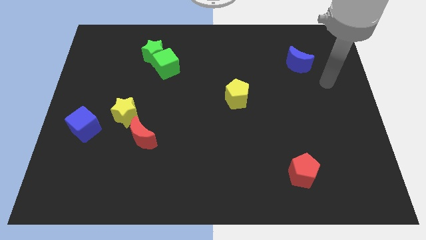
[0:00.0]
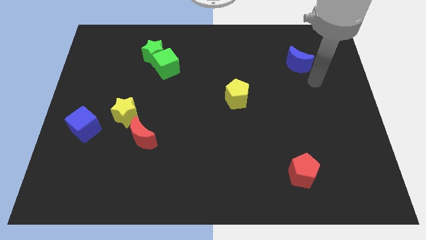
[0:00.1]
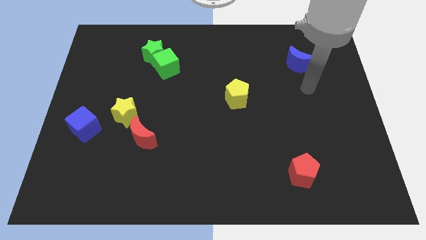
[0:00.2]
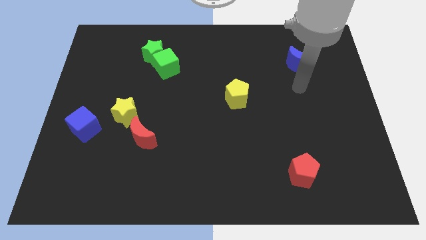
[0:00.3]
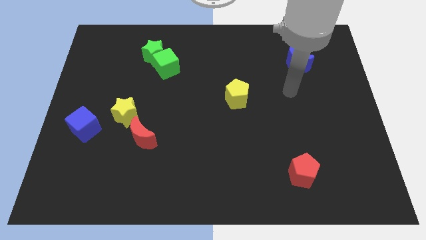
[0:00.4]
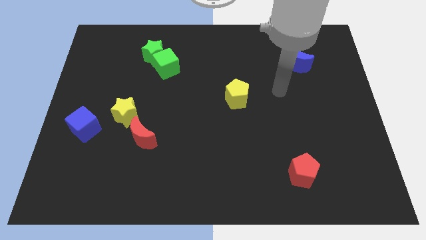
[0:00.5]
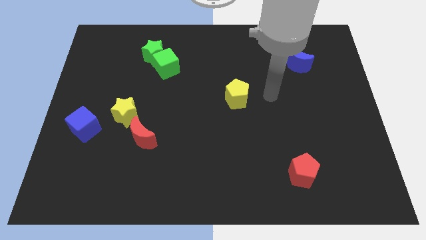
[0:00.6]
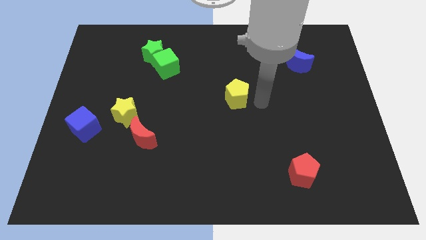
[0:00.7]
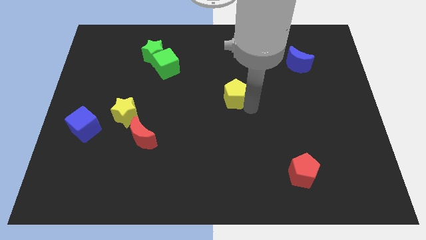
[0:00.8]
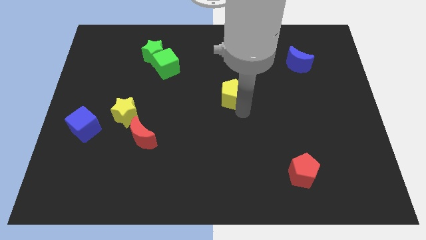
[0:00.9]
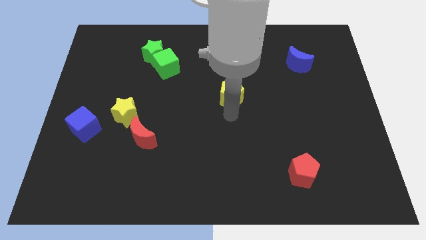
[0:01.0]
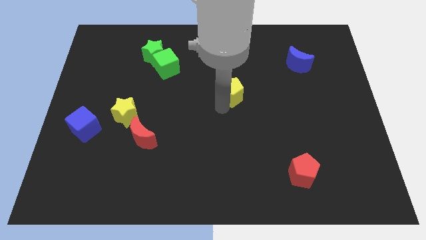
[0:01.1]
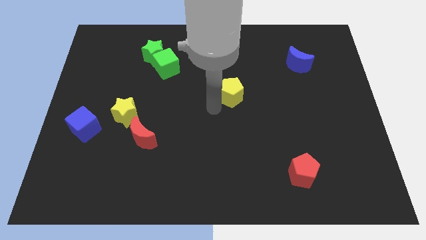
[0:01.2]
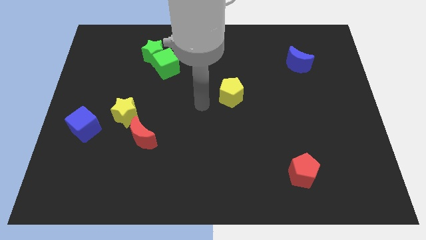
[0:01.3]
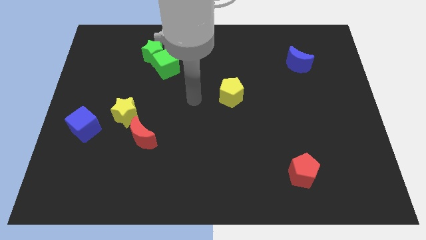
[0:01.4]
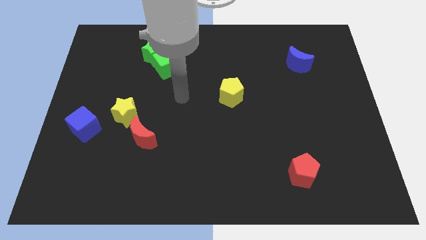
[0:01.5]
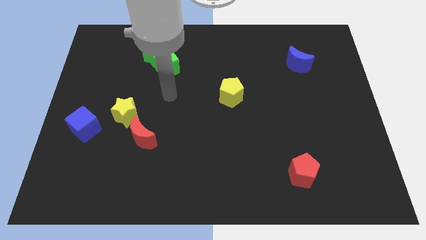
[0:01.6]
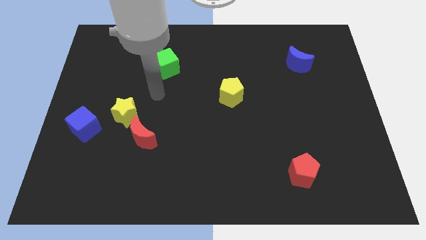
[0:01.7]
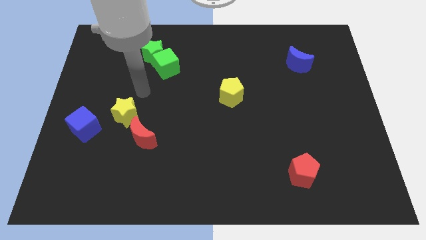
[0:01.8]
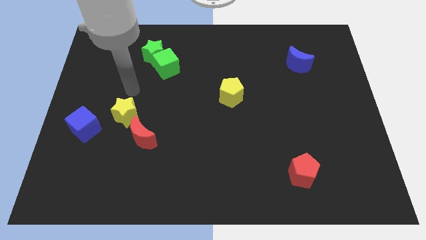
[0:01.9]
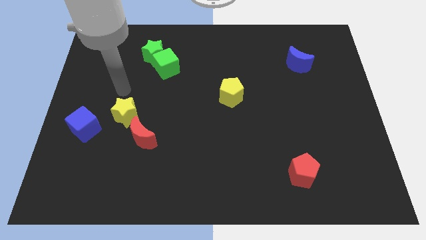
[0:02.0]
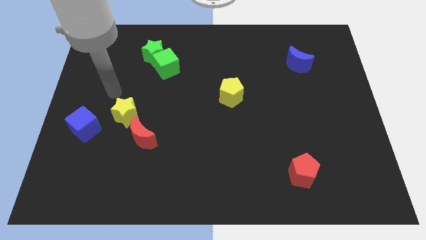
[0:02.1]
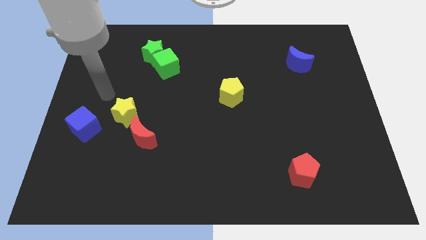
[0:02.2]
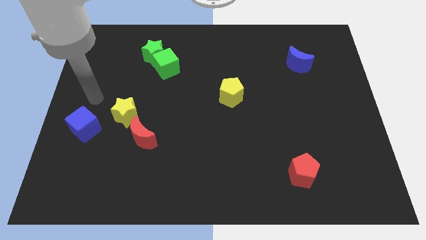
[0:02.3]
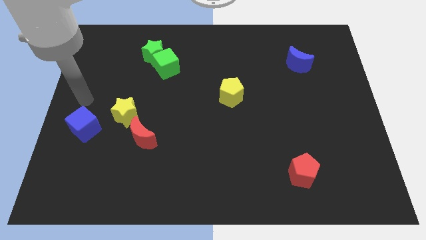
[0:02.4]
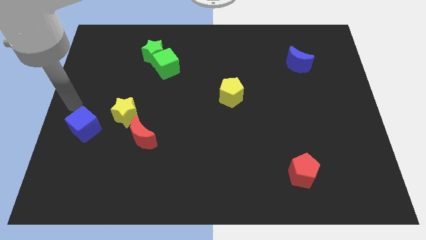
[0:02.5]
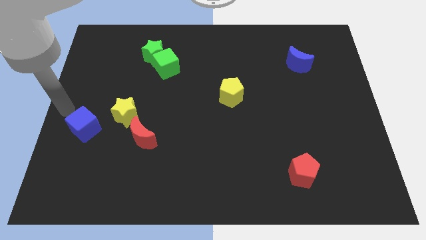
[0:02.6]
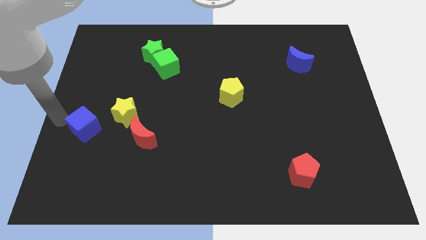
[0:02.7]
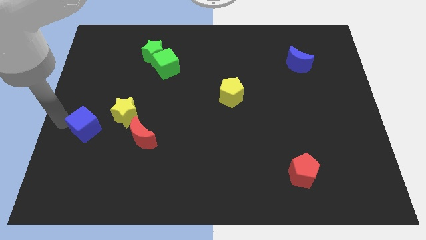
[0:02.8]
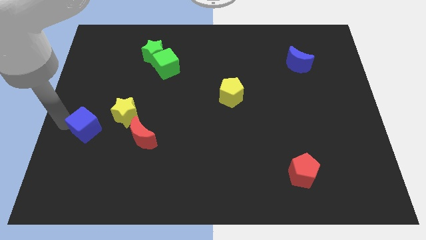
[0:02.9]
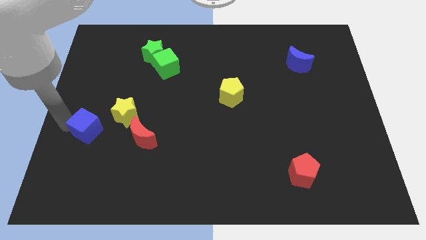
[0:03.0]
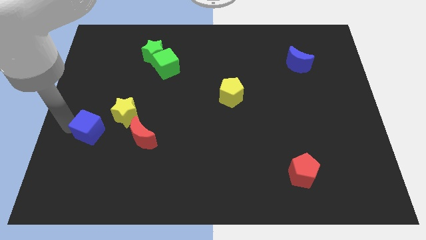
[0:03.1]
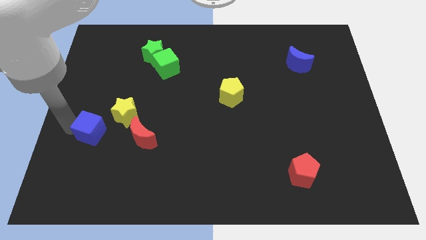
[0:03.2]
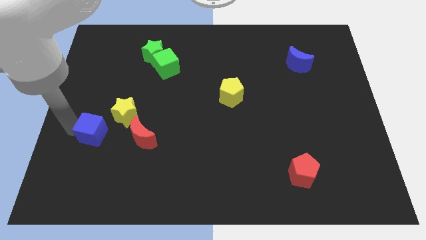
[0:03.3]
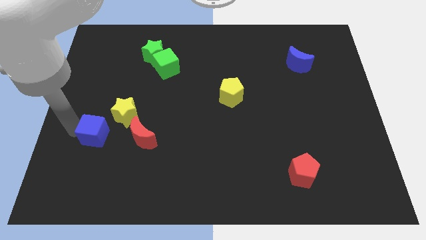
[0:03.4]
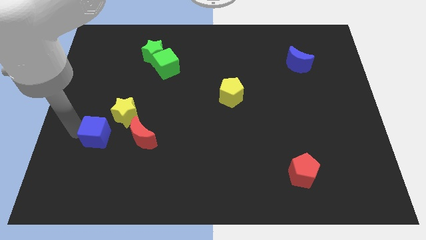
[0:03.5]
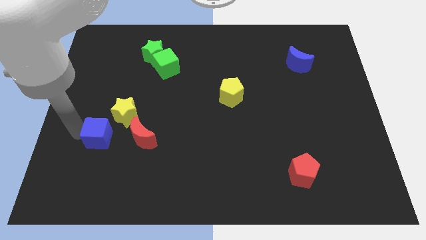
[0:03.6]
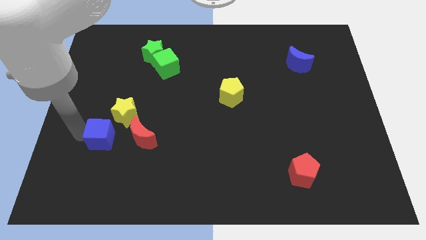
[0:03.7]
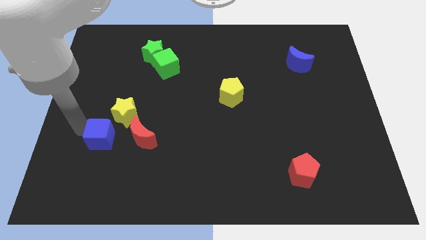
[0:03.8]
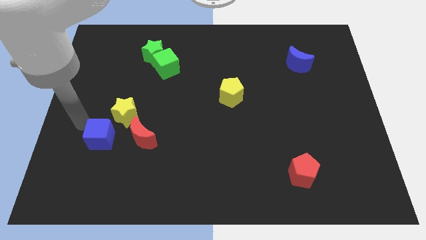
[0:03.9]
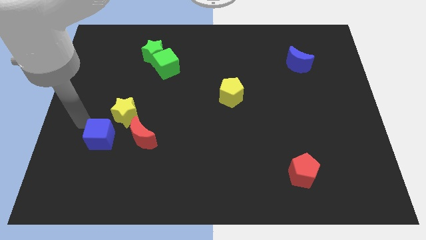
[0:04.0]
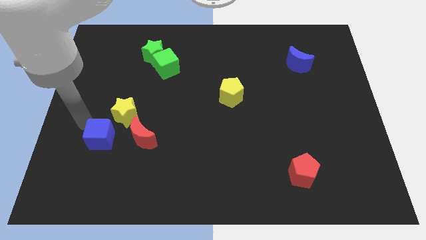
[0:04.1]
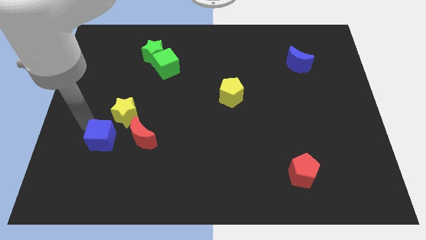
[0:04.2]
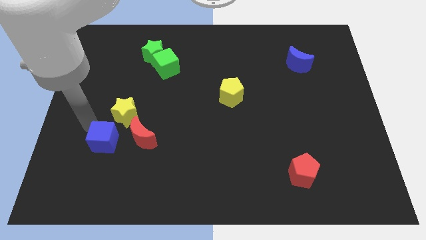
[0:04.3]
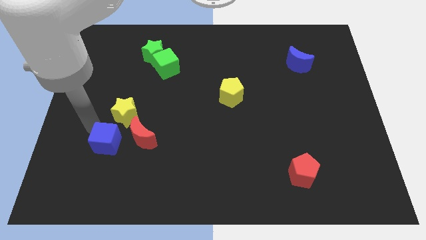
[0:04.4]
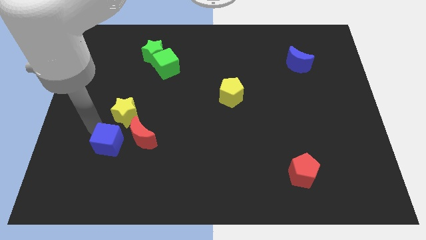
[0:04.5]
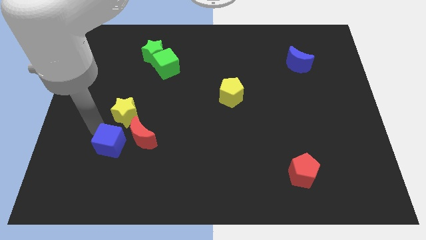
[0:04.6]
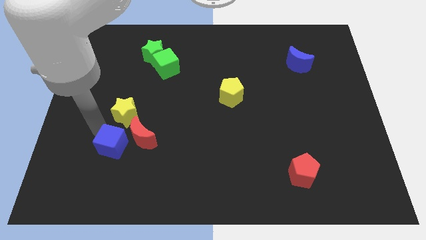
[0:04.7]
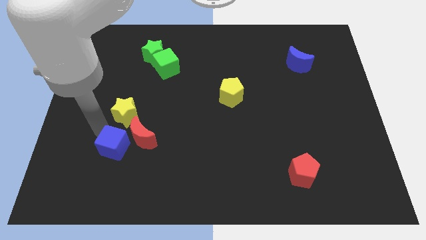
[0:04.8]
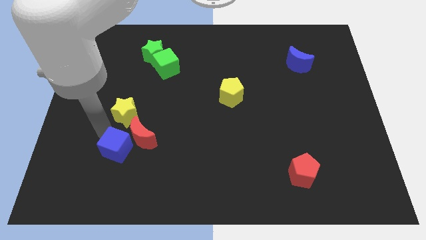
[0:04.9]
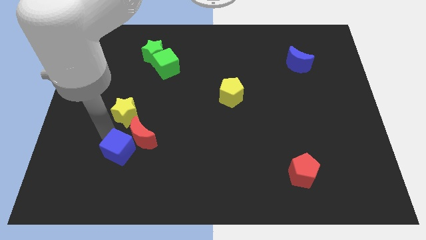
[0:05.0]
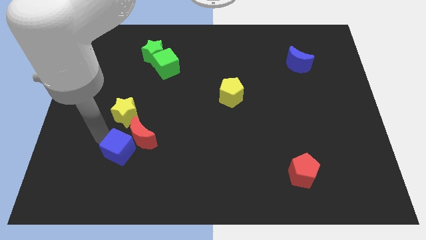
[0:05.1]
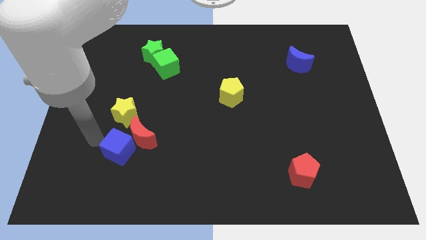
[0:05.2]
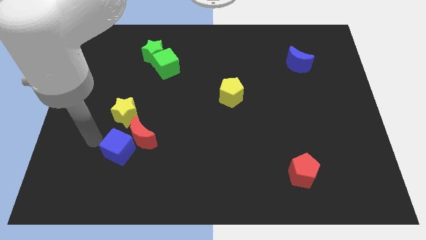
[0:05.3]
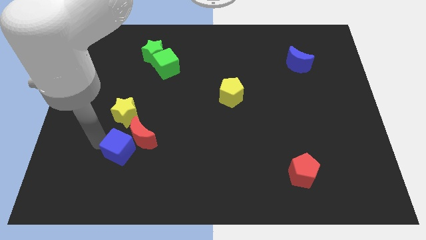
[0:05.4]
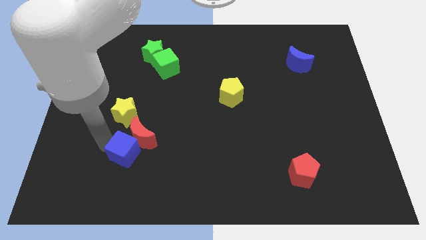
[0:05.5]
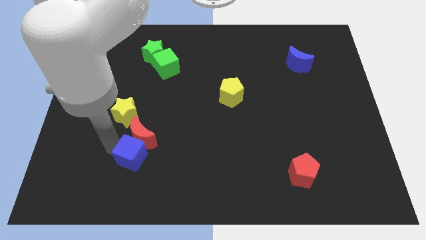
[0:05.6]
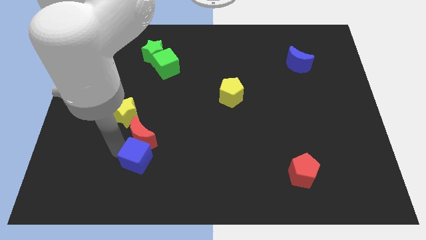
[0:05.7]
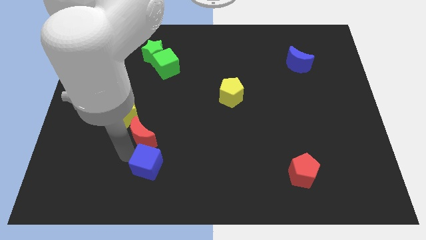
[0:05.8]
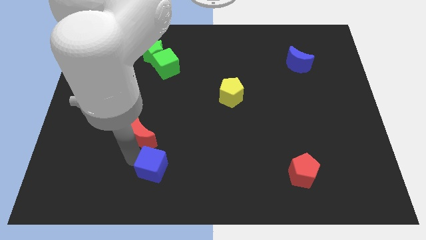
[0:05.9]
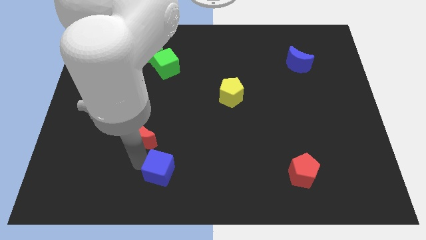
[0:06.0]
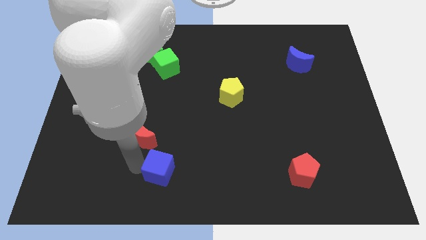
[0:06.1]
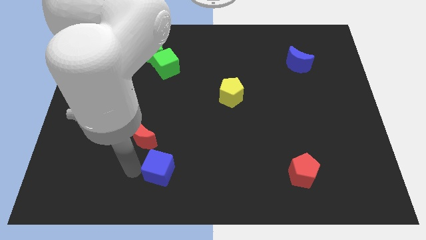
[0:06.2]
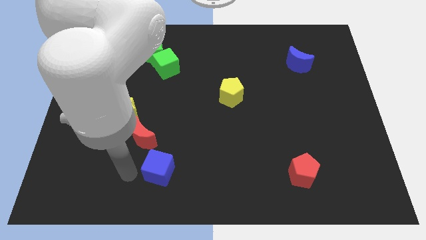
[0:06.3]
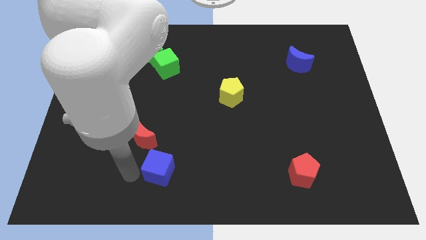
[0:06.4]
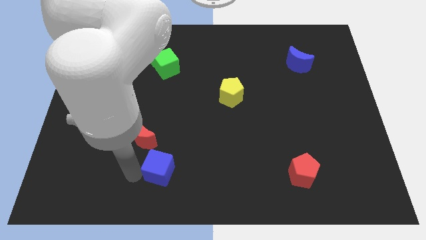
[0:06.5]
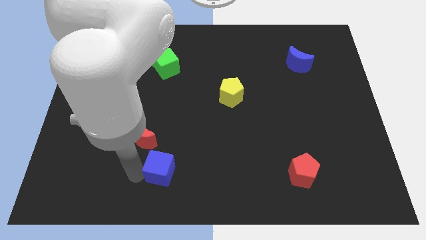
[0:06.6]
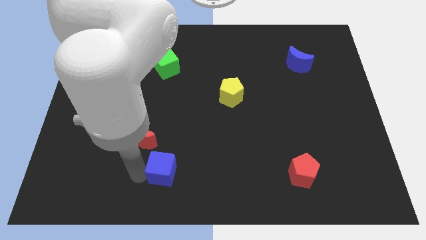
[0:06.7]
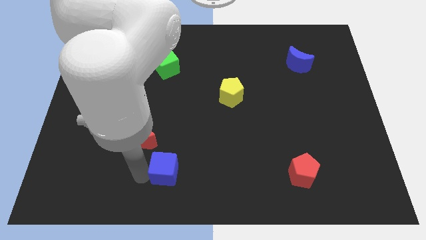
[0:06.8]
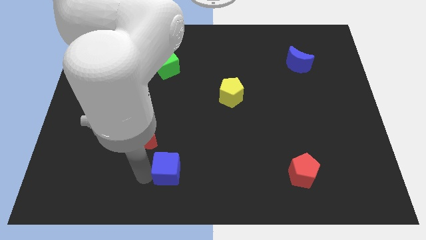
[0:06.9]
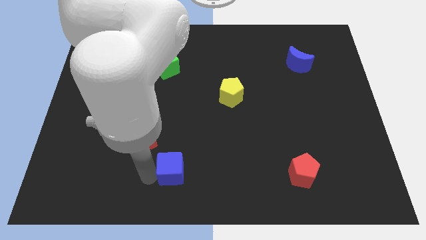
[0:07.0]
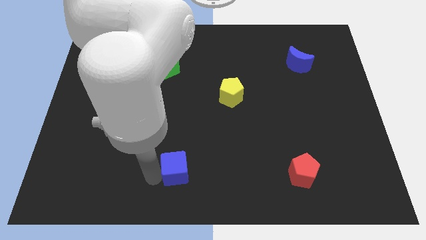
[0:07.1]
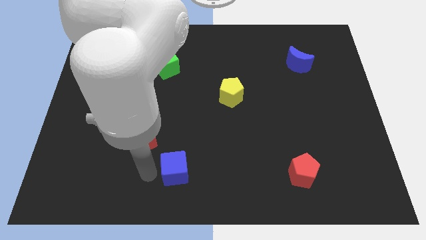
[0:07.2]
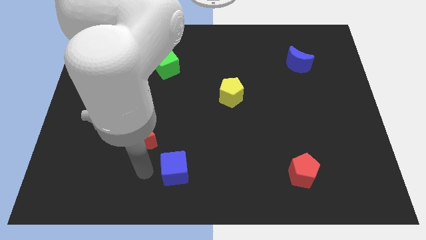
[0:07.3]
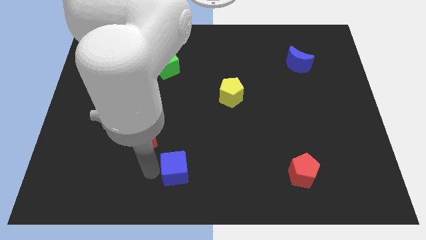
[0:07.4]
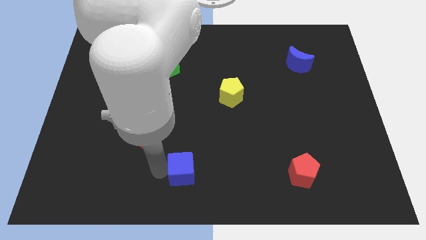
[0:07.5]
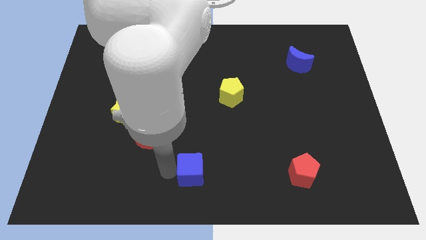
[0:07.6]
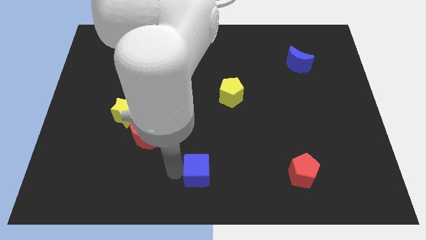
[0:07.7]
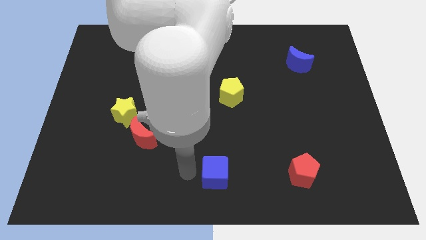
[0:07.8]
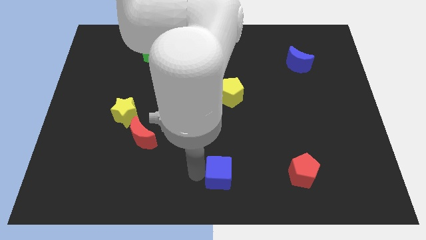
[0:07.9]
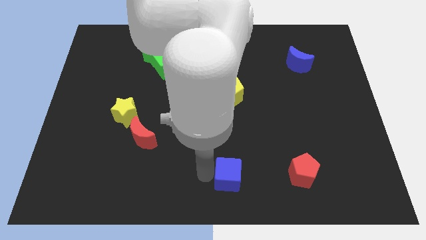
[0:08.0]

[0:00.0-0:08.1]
slide the blue cube to the left side of the red pentagon
